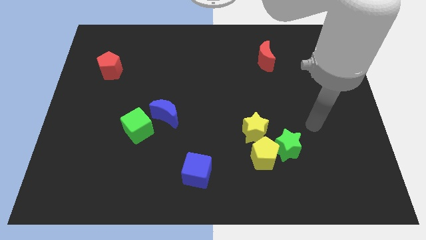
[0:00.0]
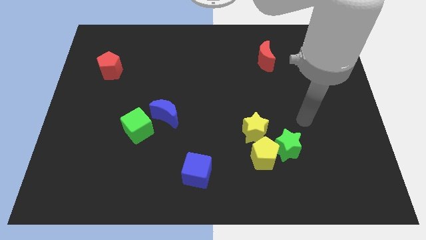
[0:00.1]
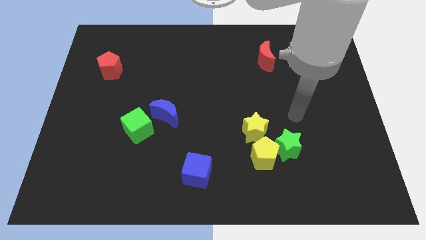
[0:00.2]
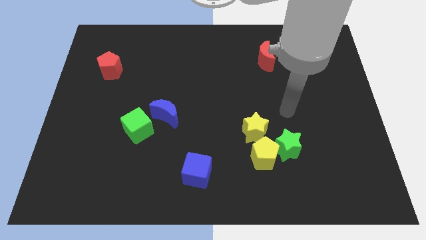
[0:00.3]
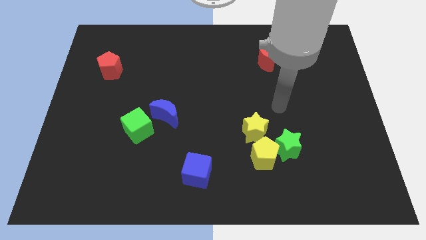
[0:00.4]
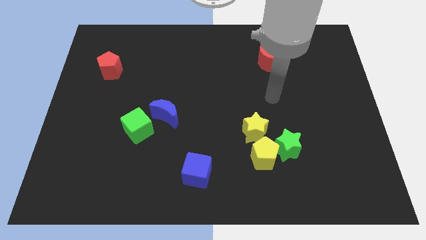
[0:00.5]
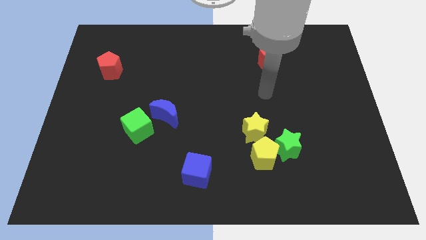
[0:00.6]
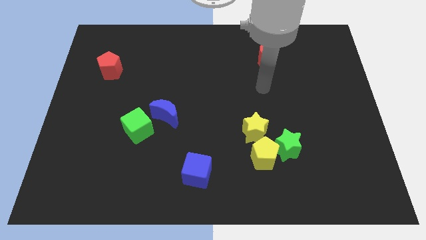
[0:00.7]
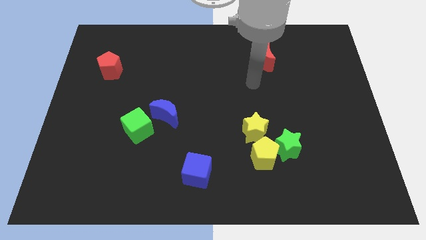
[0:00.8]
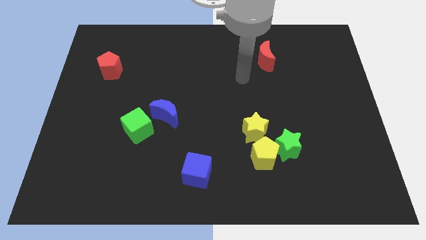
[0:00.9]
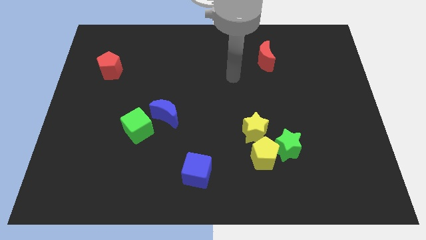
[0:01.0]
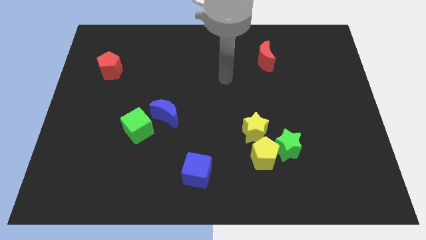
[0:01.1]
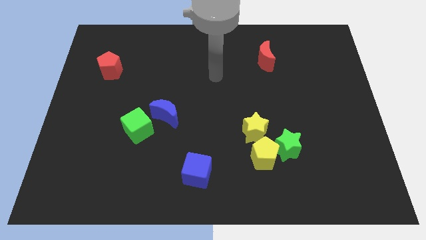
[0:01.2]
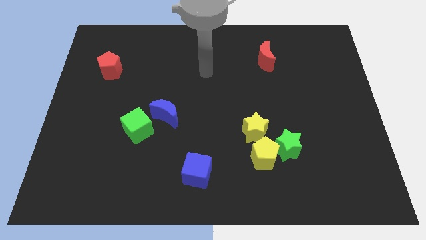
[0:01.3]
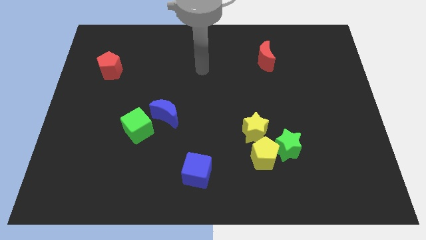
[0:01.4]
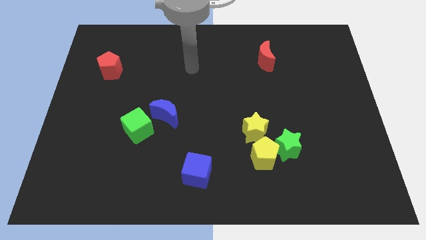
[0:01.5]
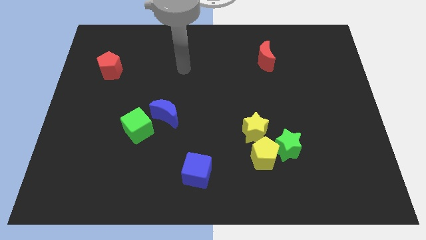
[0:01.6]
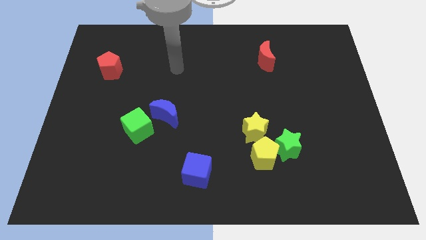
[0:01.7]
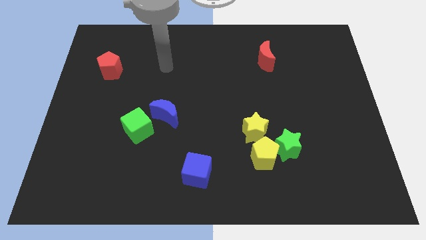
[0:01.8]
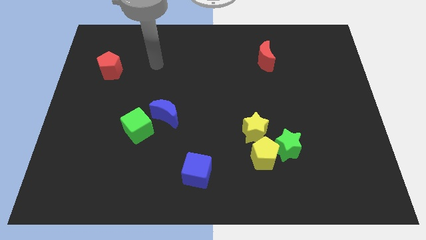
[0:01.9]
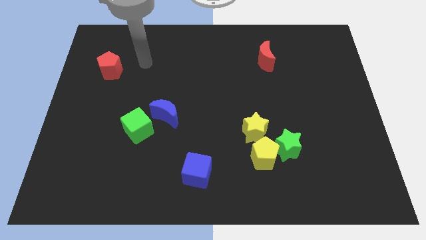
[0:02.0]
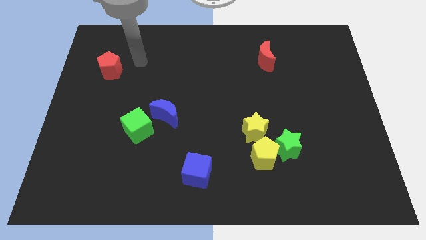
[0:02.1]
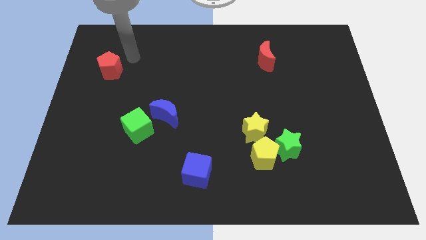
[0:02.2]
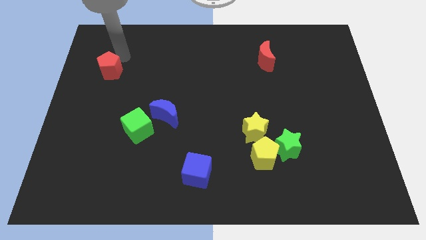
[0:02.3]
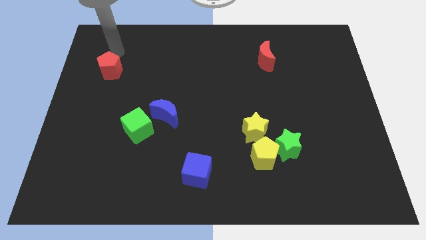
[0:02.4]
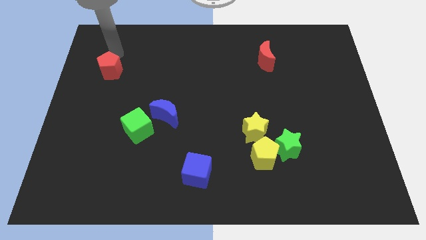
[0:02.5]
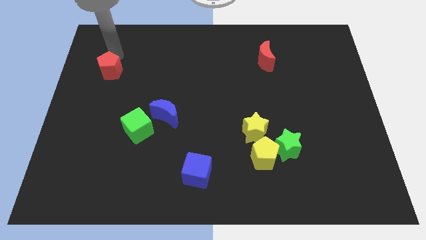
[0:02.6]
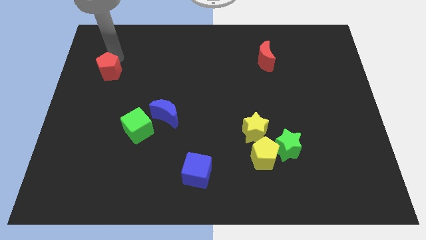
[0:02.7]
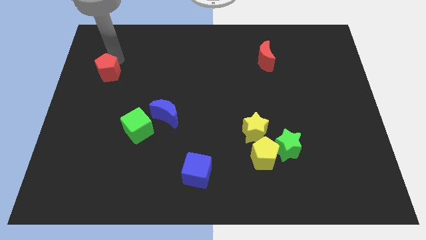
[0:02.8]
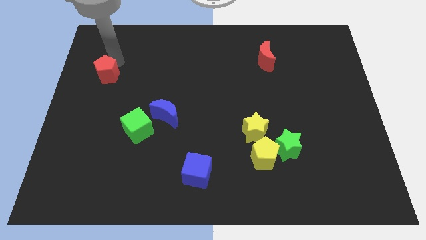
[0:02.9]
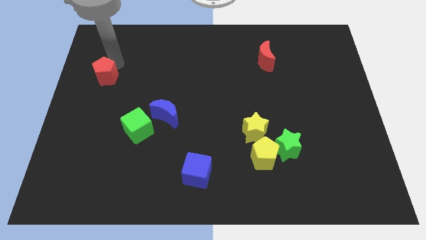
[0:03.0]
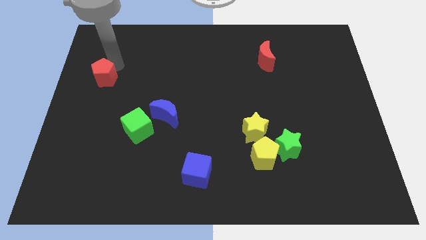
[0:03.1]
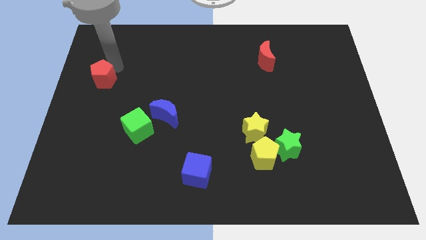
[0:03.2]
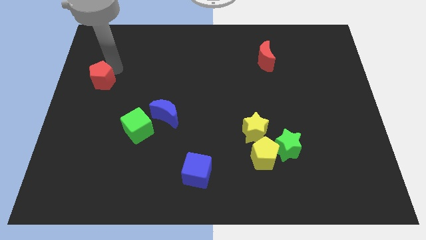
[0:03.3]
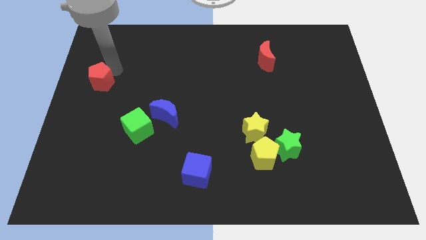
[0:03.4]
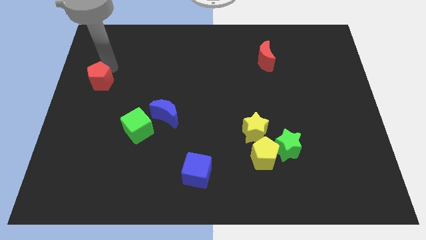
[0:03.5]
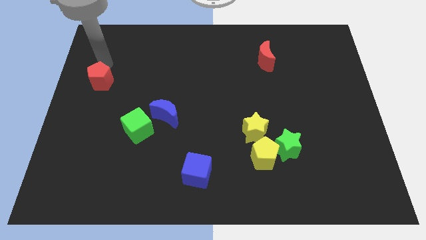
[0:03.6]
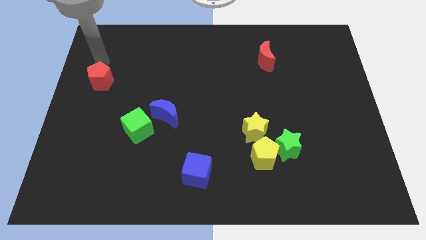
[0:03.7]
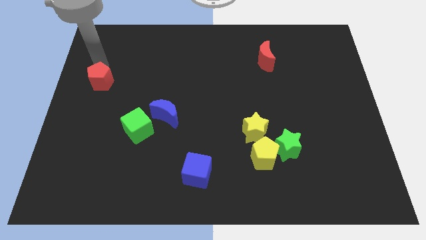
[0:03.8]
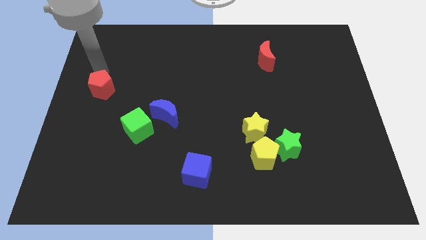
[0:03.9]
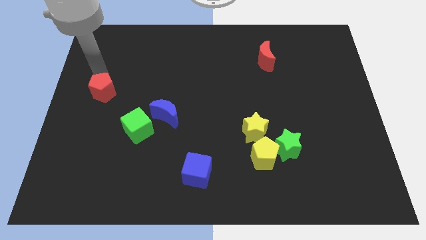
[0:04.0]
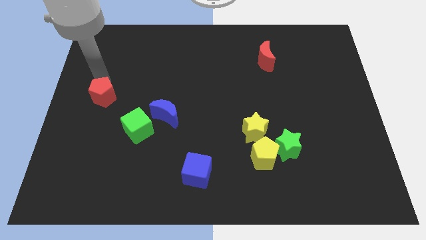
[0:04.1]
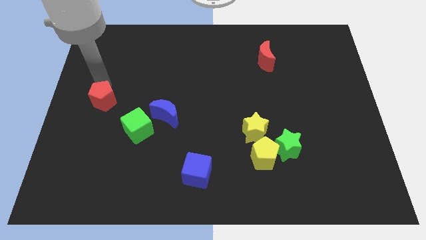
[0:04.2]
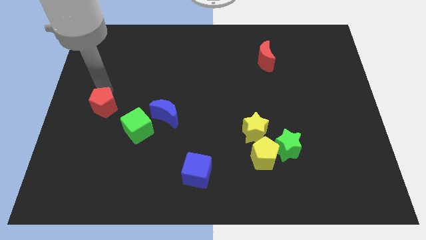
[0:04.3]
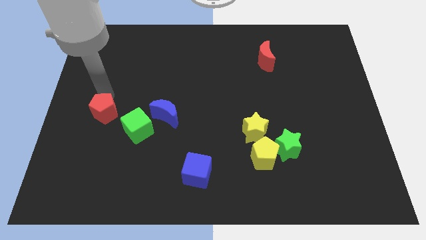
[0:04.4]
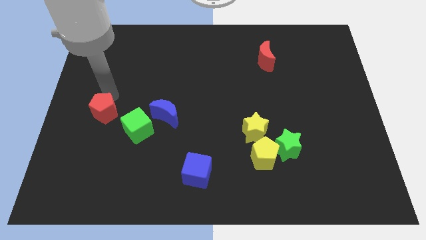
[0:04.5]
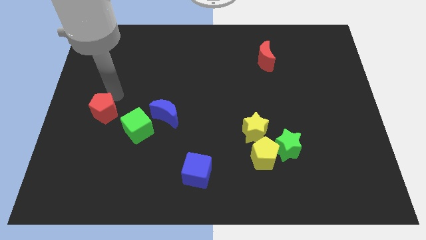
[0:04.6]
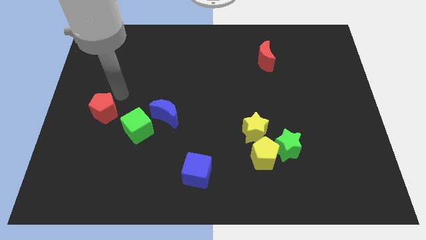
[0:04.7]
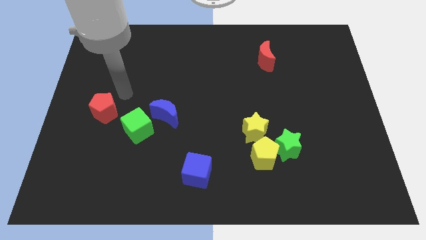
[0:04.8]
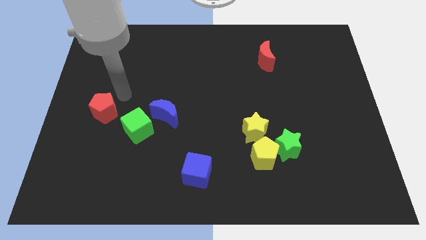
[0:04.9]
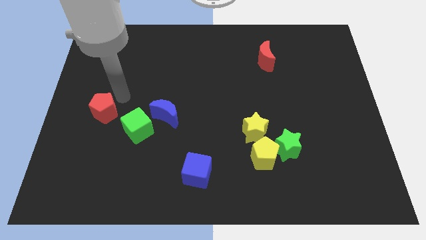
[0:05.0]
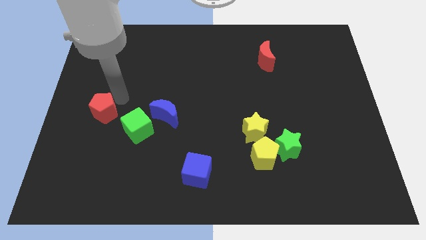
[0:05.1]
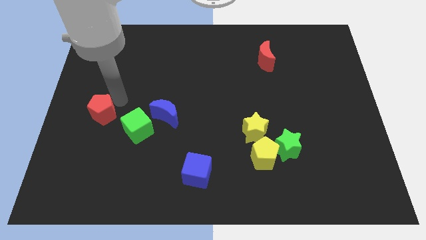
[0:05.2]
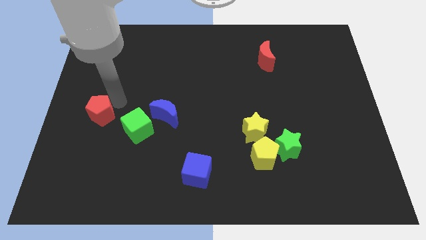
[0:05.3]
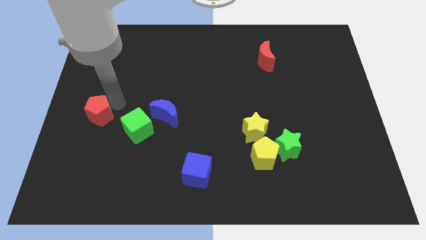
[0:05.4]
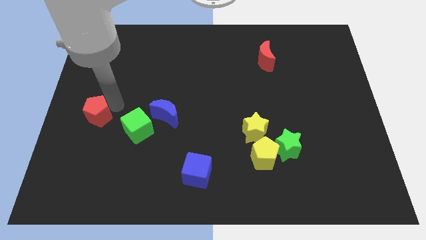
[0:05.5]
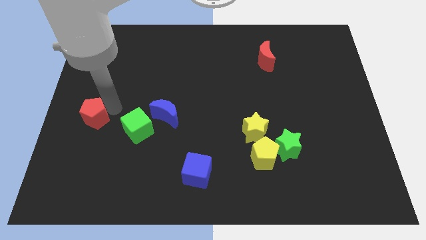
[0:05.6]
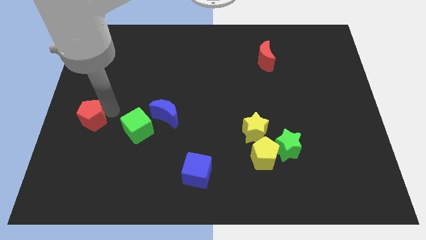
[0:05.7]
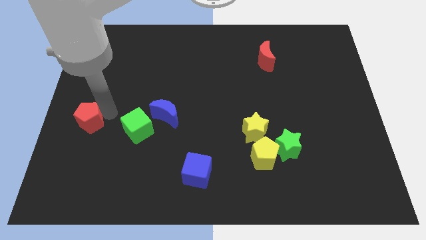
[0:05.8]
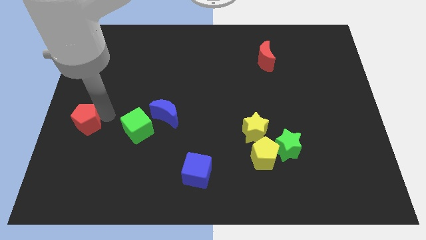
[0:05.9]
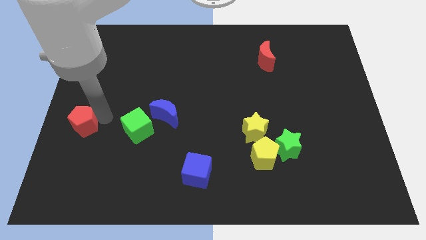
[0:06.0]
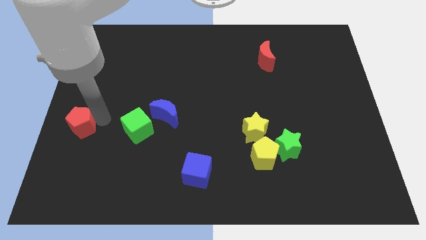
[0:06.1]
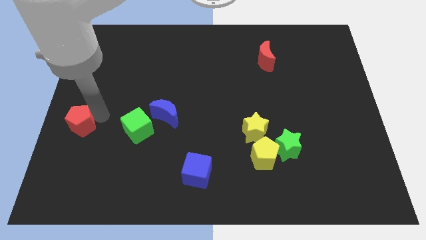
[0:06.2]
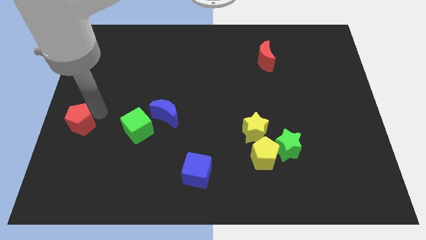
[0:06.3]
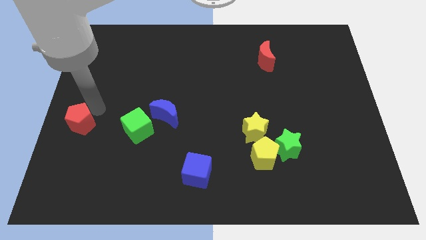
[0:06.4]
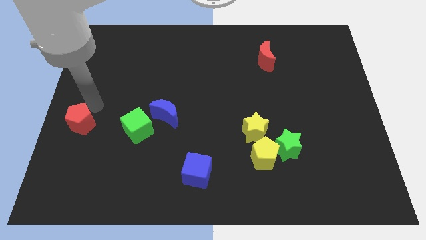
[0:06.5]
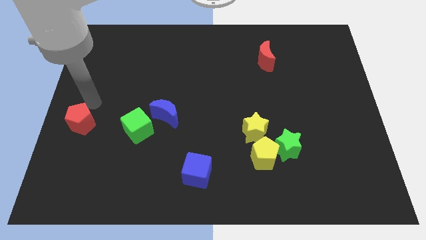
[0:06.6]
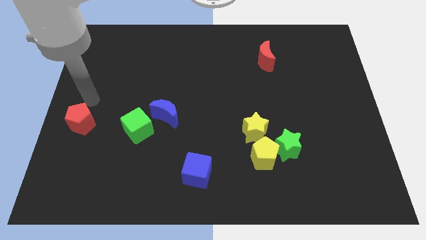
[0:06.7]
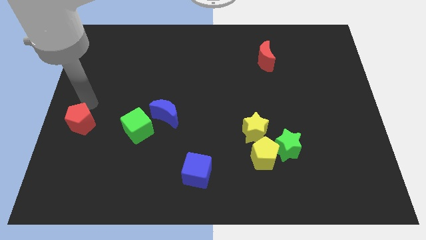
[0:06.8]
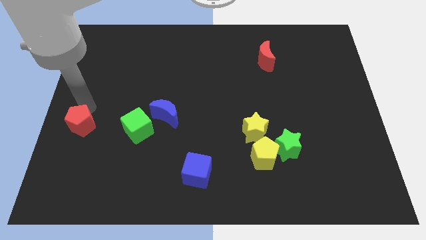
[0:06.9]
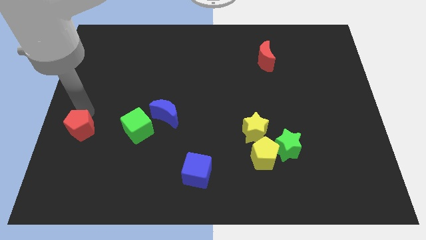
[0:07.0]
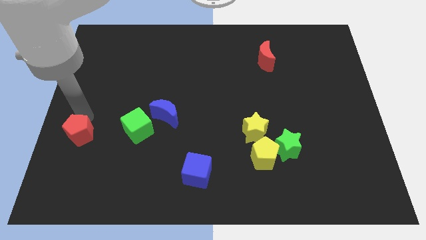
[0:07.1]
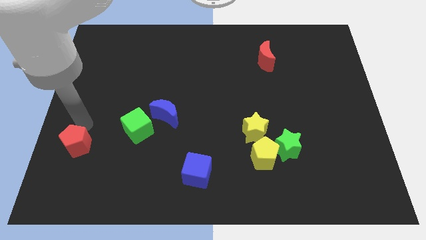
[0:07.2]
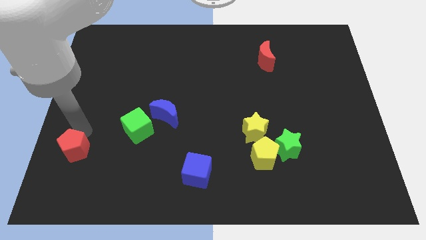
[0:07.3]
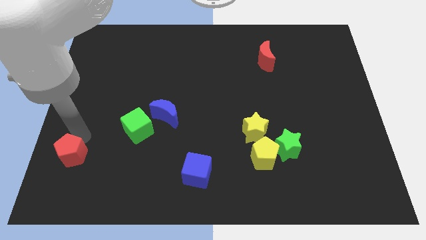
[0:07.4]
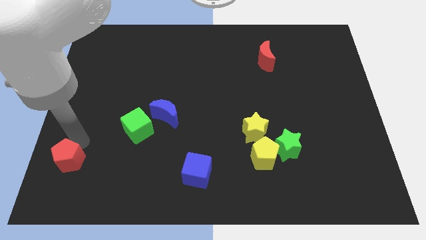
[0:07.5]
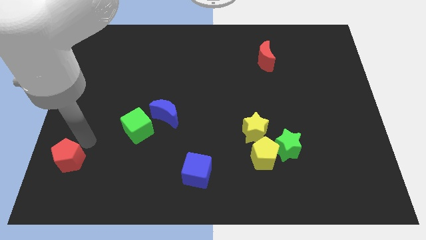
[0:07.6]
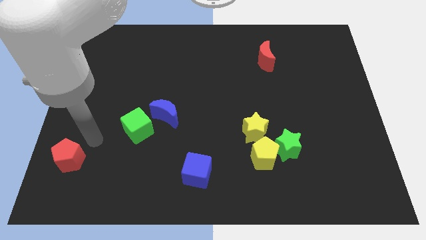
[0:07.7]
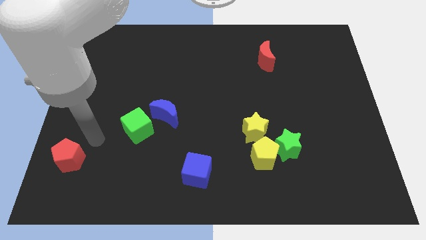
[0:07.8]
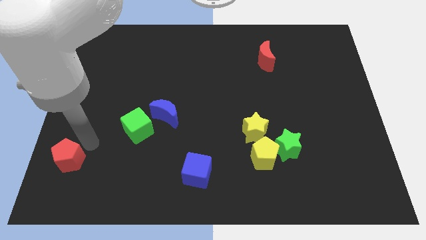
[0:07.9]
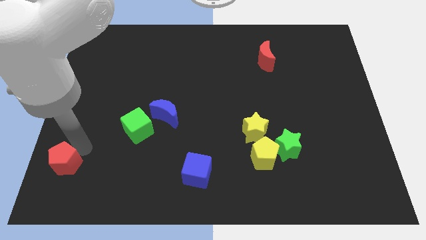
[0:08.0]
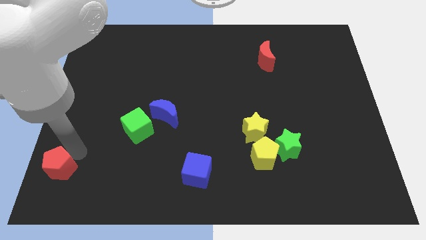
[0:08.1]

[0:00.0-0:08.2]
move the red pentagon to the bottom left corner
